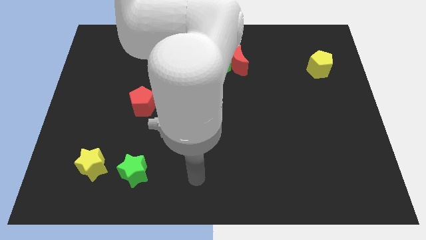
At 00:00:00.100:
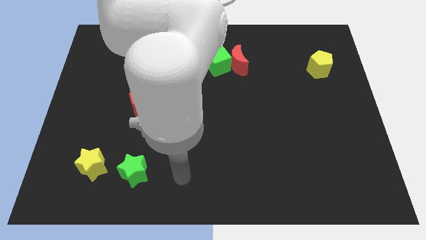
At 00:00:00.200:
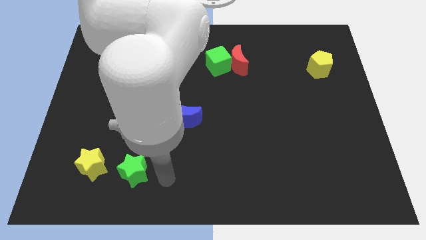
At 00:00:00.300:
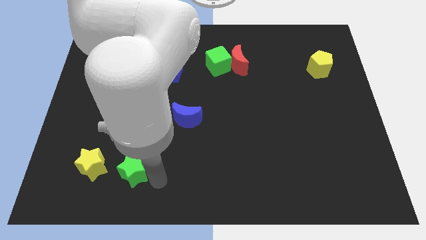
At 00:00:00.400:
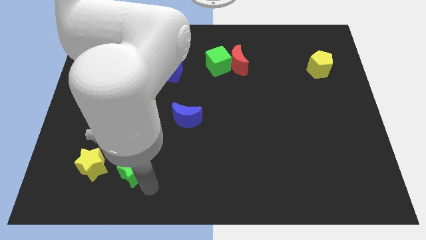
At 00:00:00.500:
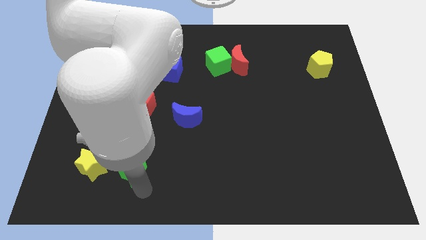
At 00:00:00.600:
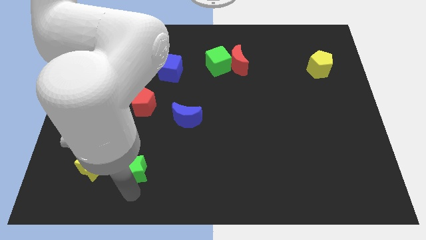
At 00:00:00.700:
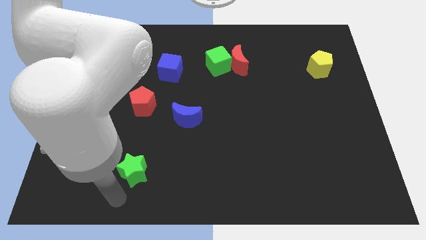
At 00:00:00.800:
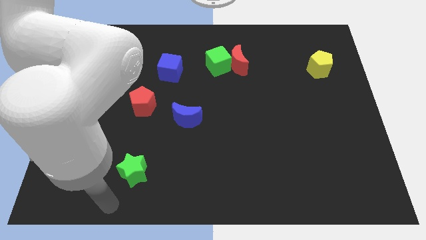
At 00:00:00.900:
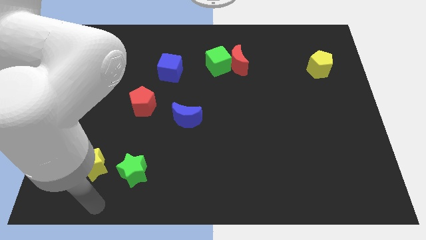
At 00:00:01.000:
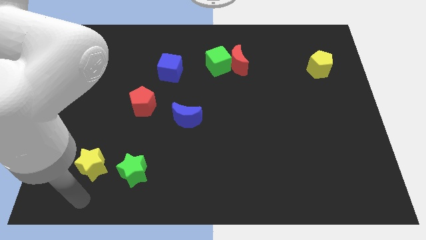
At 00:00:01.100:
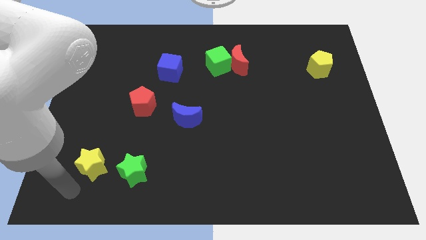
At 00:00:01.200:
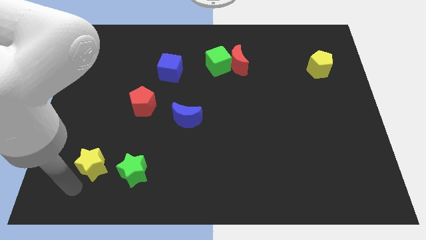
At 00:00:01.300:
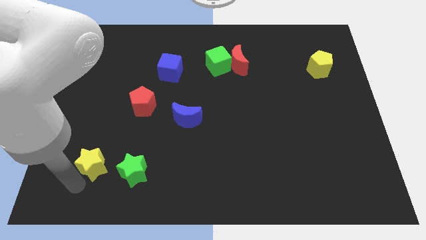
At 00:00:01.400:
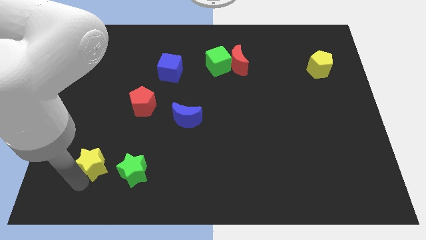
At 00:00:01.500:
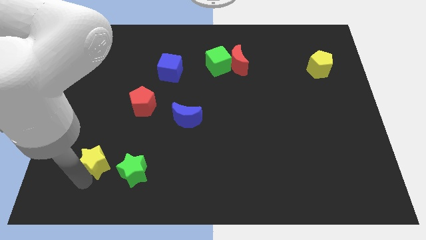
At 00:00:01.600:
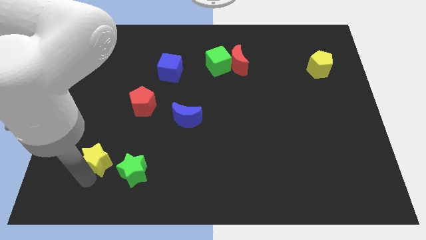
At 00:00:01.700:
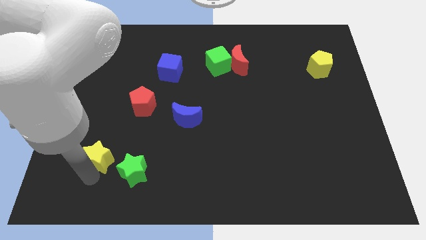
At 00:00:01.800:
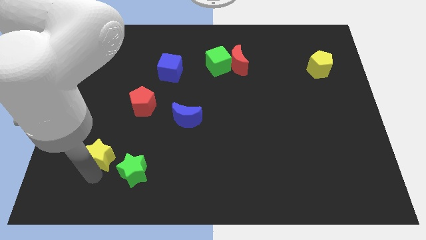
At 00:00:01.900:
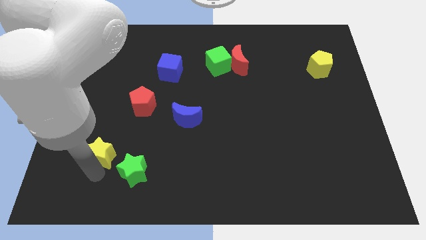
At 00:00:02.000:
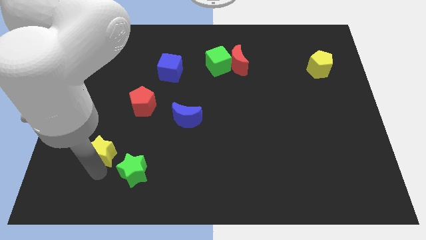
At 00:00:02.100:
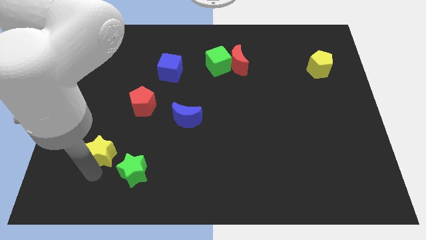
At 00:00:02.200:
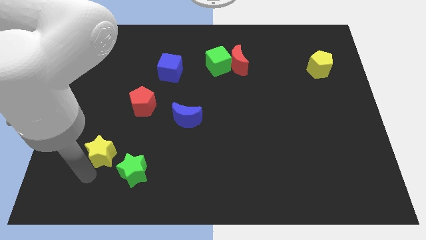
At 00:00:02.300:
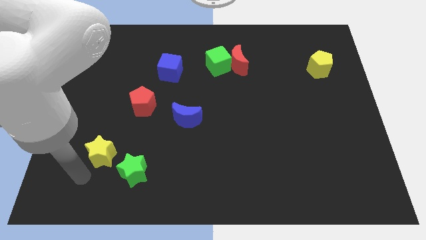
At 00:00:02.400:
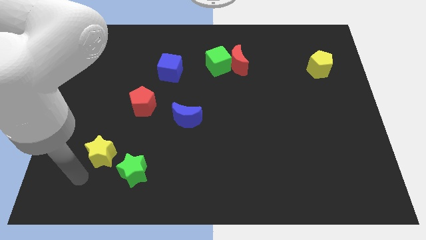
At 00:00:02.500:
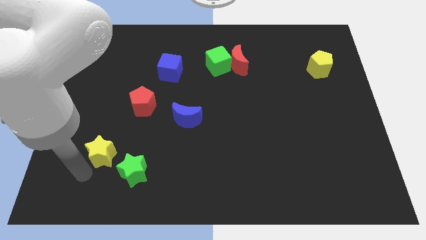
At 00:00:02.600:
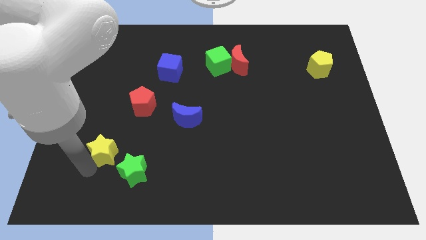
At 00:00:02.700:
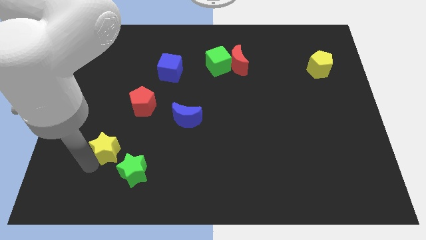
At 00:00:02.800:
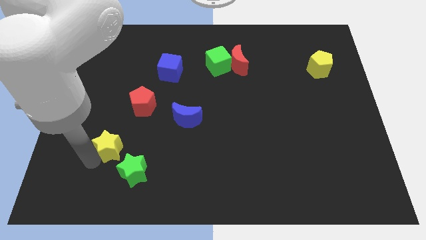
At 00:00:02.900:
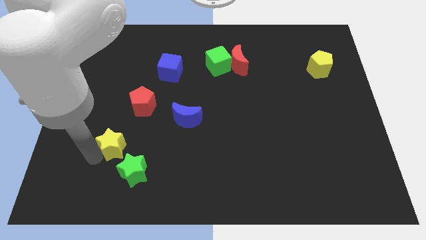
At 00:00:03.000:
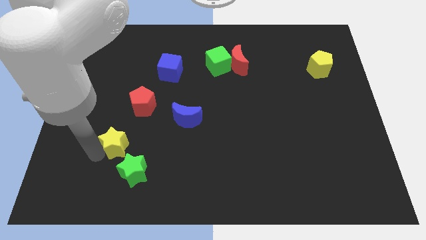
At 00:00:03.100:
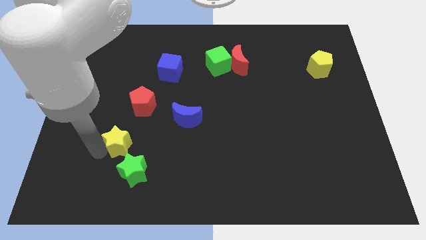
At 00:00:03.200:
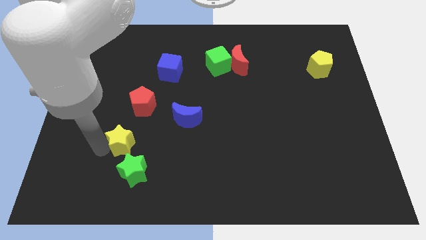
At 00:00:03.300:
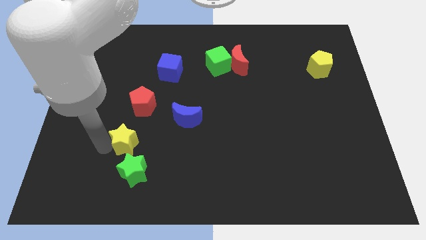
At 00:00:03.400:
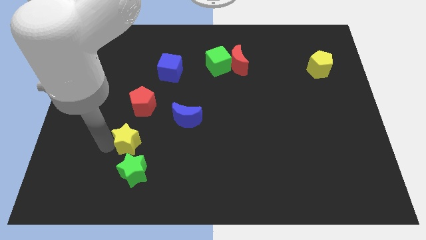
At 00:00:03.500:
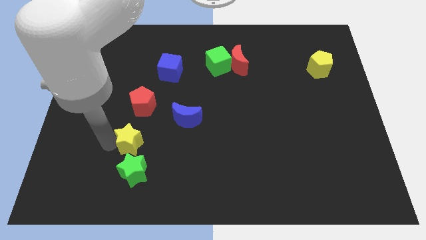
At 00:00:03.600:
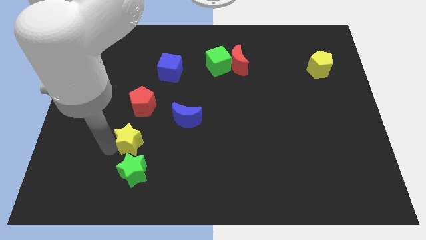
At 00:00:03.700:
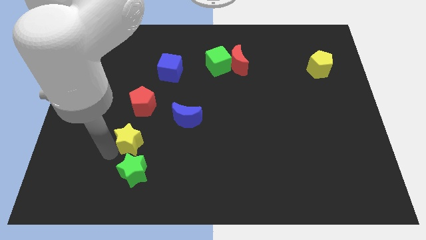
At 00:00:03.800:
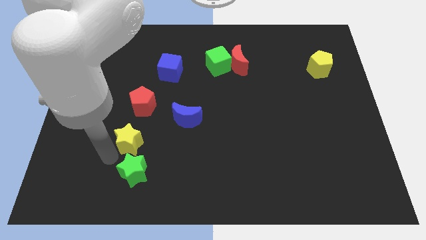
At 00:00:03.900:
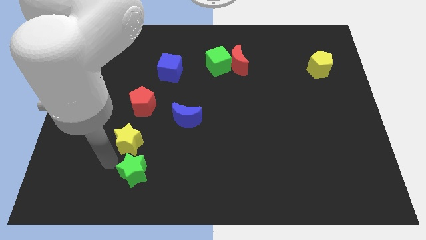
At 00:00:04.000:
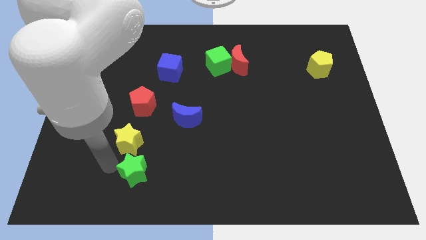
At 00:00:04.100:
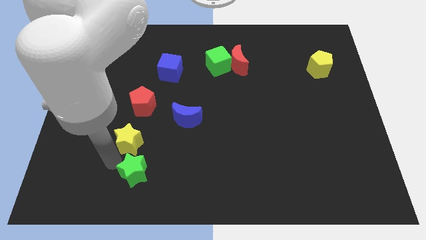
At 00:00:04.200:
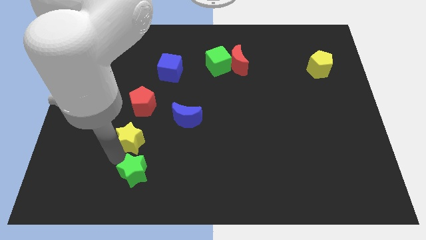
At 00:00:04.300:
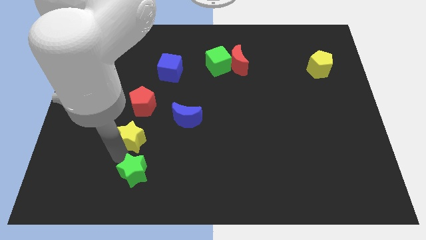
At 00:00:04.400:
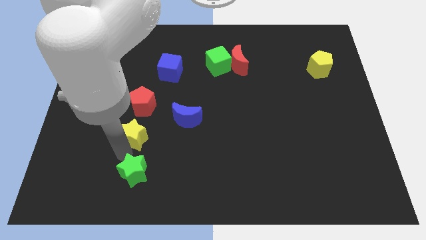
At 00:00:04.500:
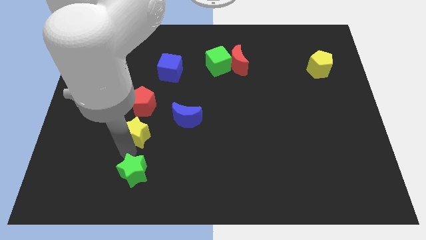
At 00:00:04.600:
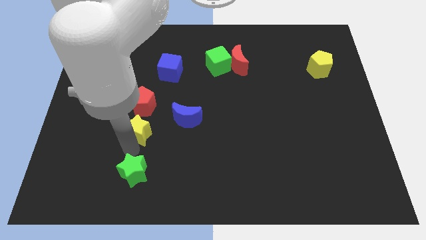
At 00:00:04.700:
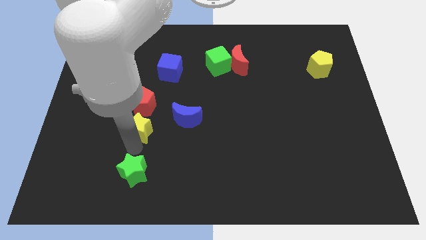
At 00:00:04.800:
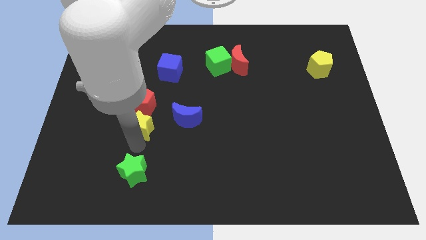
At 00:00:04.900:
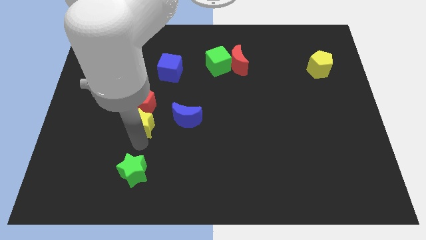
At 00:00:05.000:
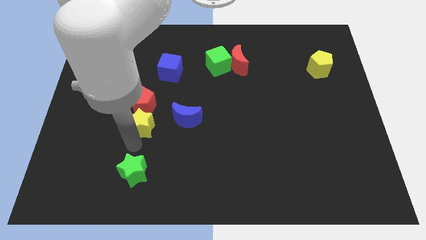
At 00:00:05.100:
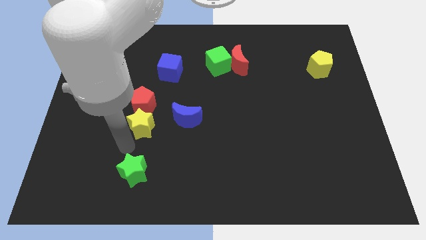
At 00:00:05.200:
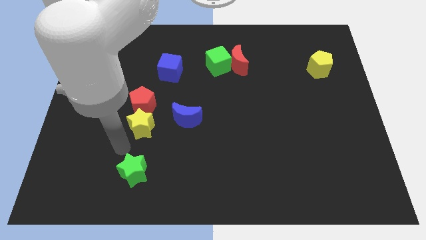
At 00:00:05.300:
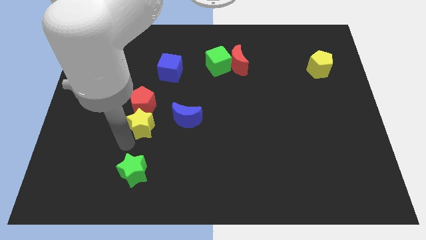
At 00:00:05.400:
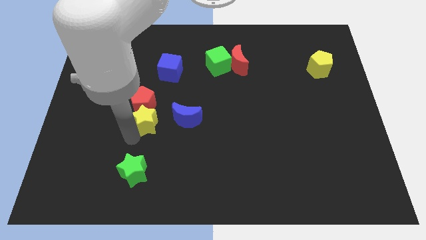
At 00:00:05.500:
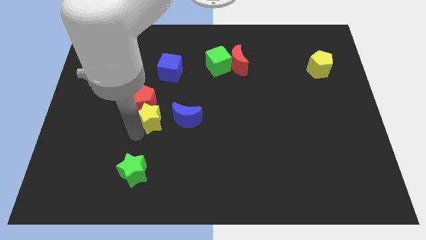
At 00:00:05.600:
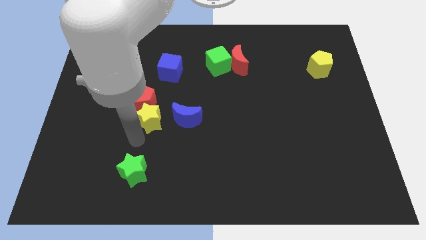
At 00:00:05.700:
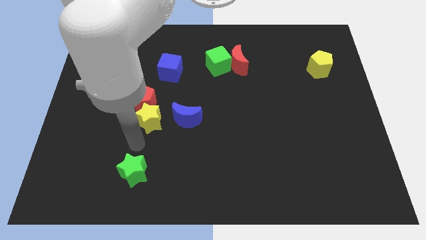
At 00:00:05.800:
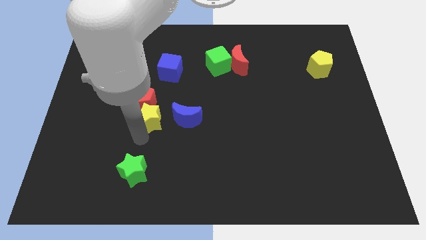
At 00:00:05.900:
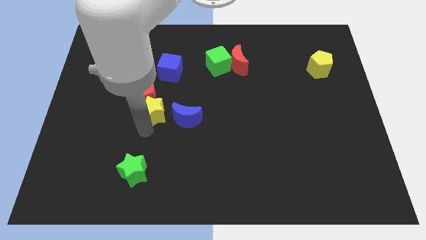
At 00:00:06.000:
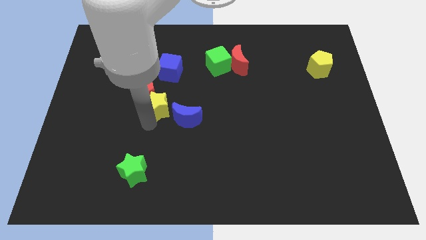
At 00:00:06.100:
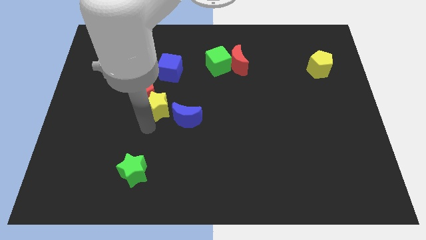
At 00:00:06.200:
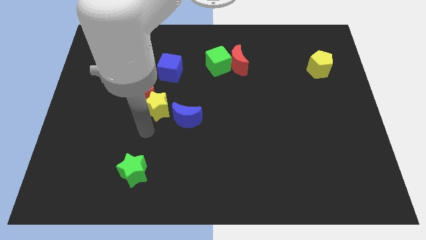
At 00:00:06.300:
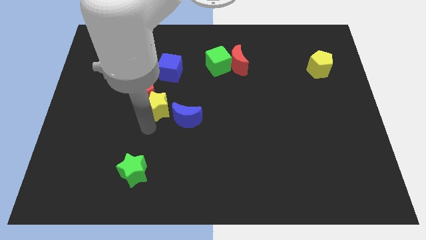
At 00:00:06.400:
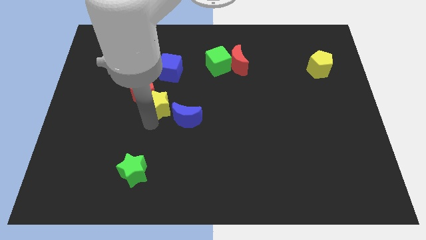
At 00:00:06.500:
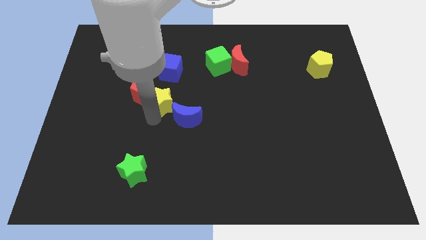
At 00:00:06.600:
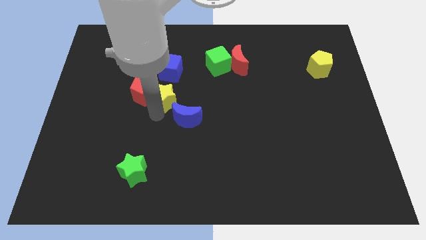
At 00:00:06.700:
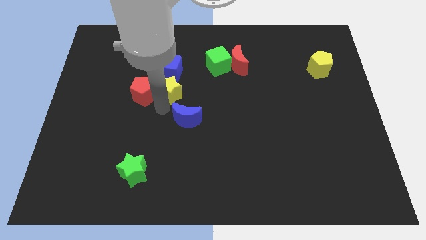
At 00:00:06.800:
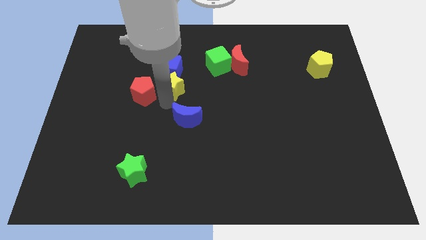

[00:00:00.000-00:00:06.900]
push the yellow star towards the blue cube

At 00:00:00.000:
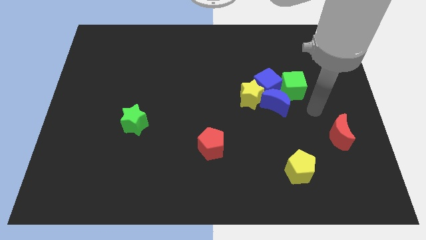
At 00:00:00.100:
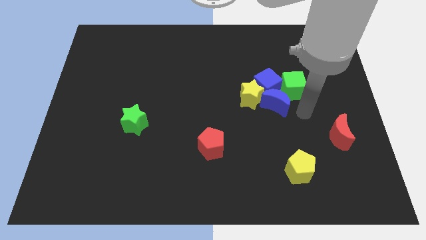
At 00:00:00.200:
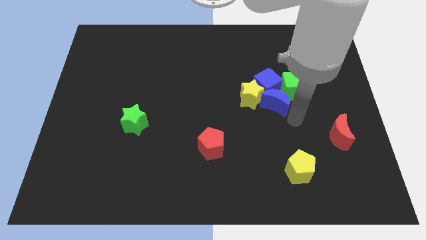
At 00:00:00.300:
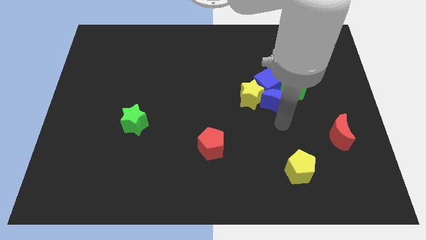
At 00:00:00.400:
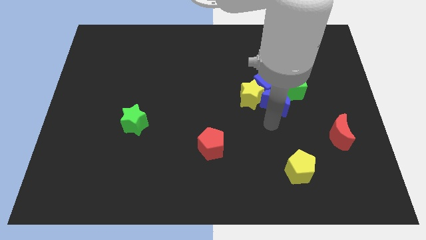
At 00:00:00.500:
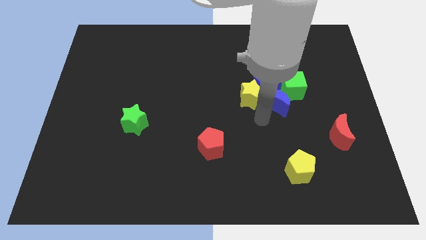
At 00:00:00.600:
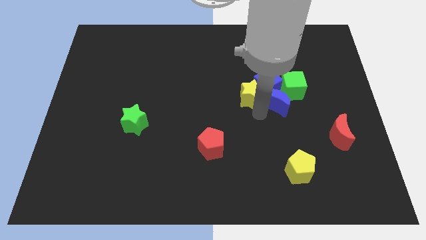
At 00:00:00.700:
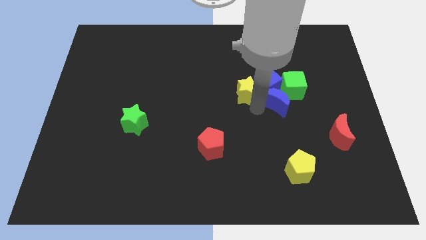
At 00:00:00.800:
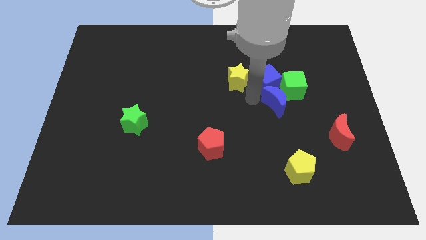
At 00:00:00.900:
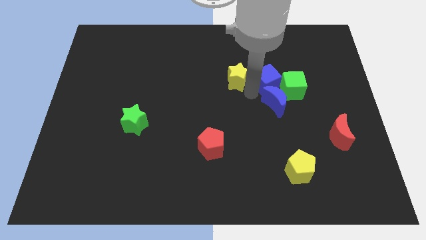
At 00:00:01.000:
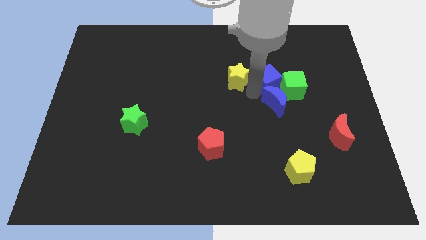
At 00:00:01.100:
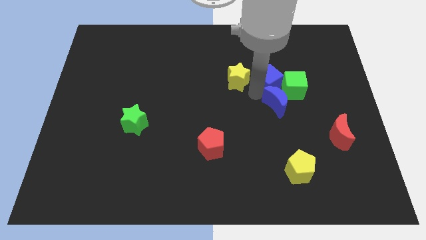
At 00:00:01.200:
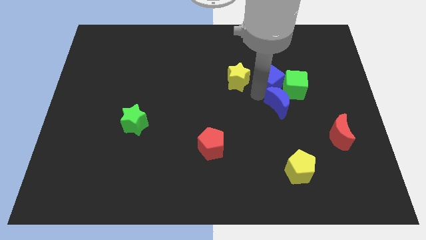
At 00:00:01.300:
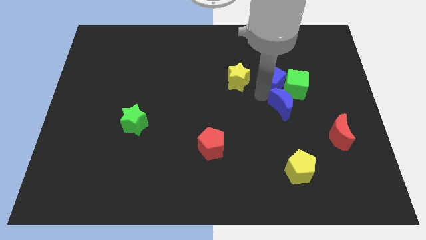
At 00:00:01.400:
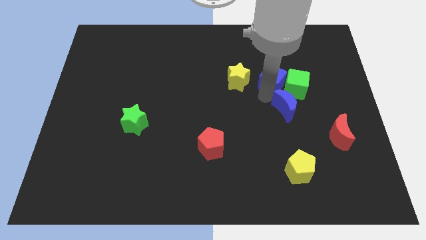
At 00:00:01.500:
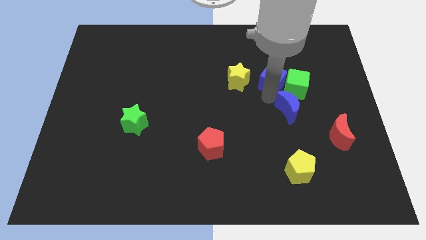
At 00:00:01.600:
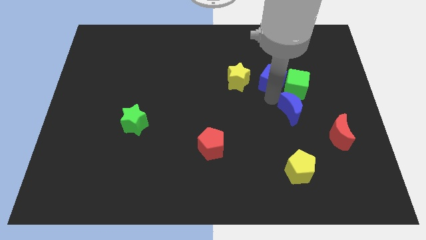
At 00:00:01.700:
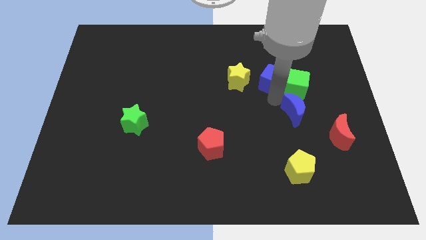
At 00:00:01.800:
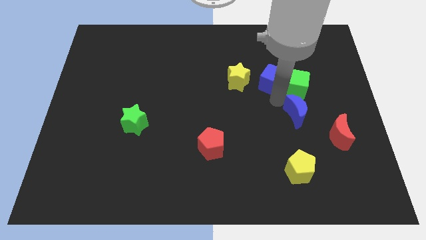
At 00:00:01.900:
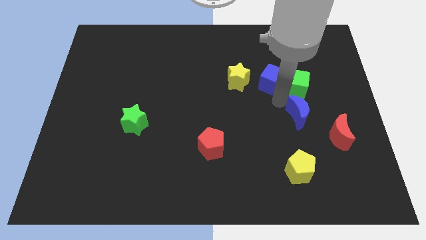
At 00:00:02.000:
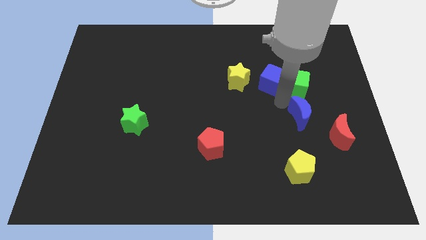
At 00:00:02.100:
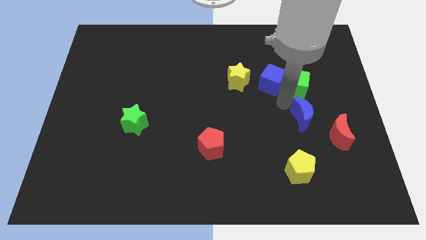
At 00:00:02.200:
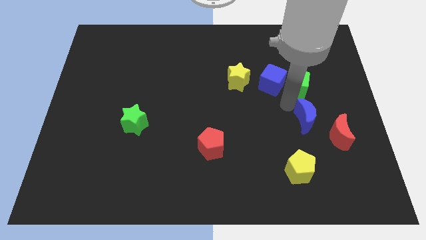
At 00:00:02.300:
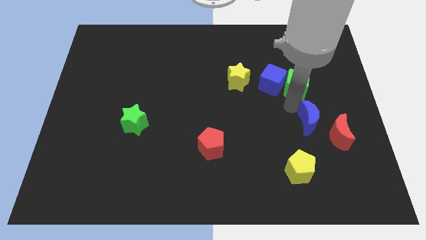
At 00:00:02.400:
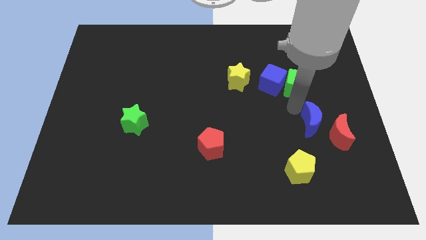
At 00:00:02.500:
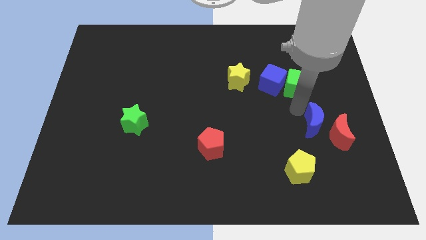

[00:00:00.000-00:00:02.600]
put the blue moon to the red moon
